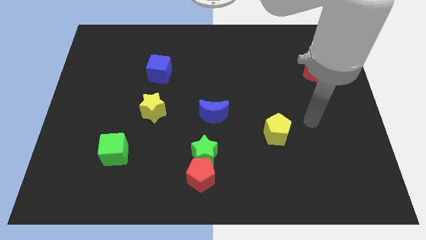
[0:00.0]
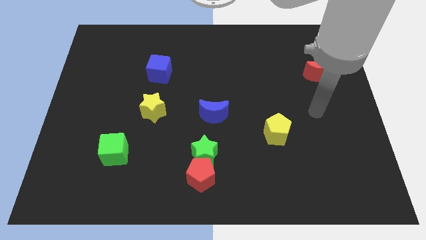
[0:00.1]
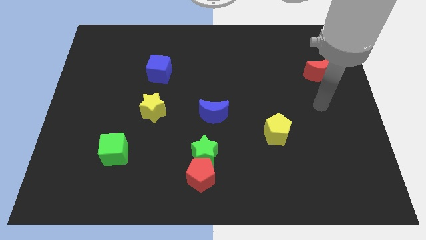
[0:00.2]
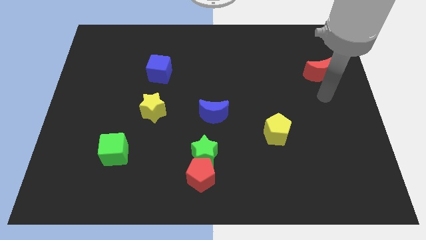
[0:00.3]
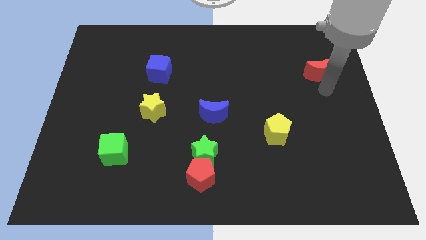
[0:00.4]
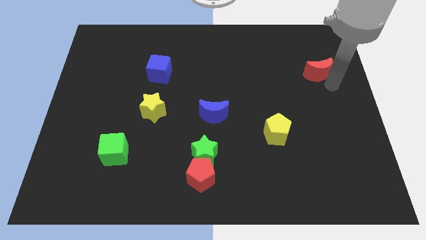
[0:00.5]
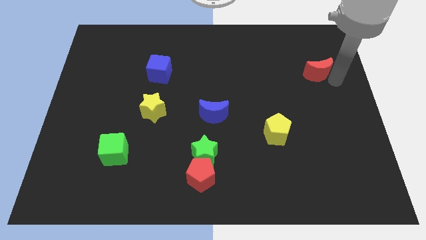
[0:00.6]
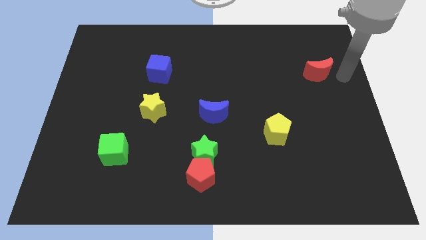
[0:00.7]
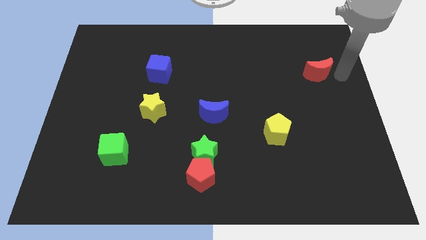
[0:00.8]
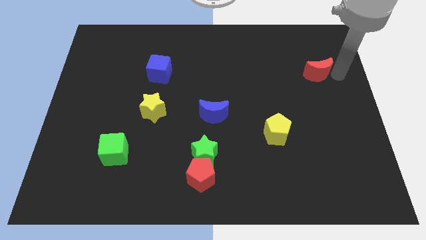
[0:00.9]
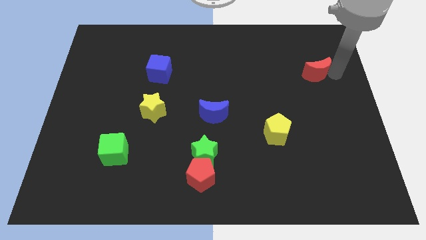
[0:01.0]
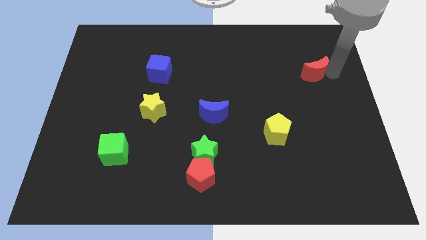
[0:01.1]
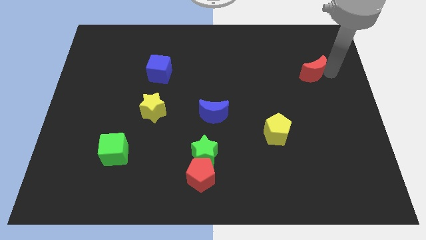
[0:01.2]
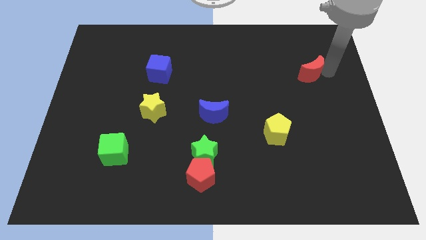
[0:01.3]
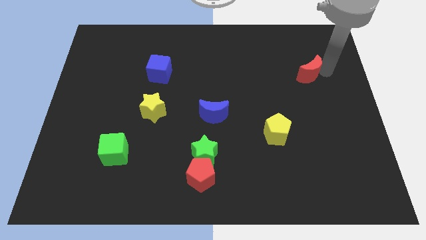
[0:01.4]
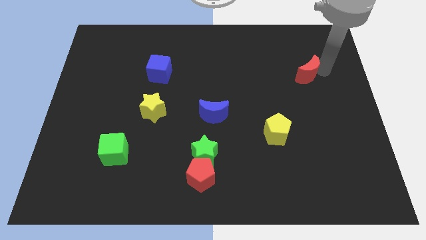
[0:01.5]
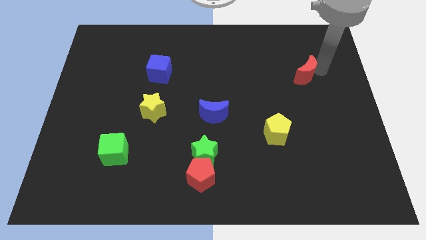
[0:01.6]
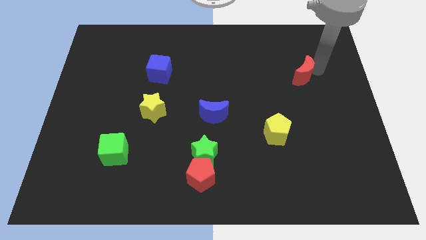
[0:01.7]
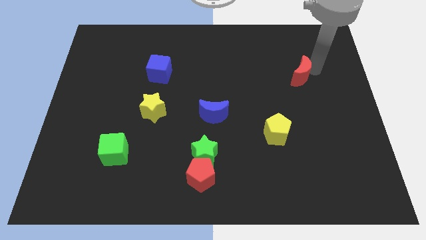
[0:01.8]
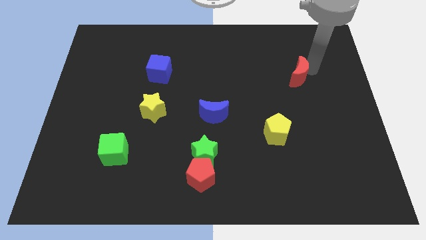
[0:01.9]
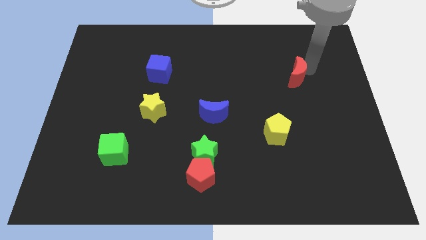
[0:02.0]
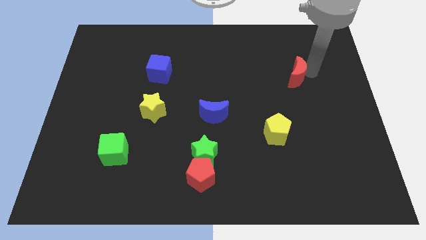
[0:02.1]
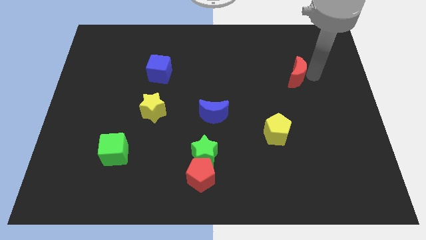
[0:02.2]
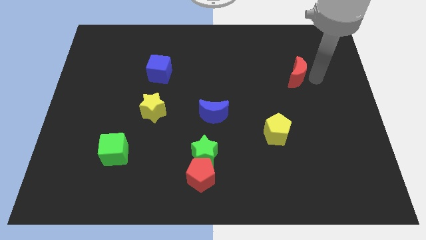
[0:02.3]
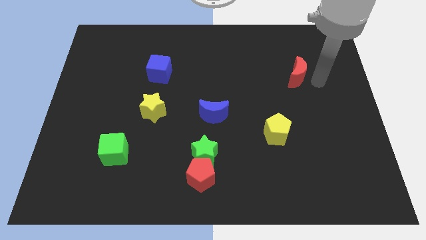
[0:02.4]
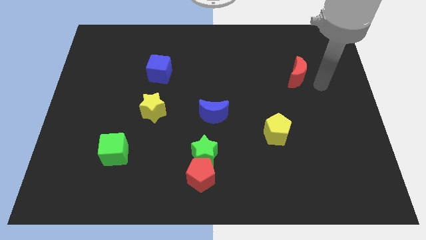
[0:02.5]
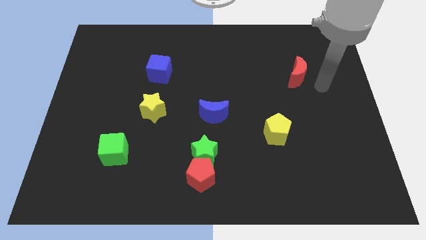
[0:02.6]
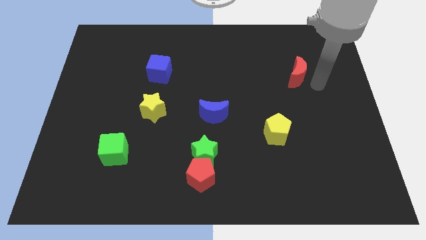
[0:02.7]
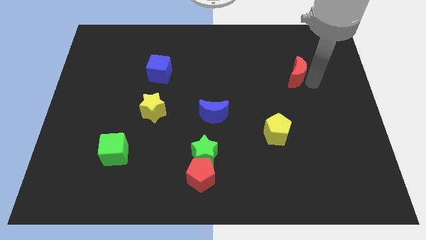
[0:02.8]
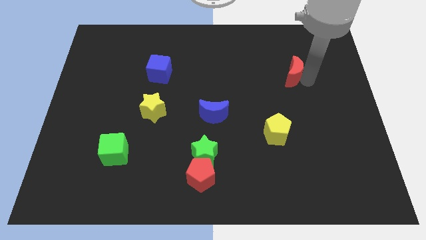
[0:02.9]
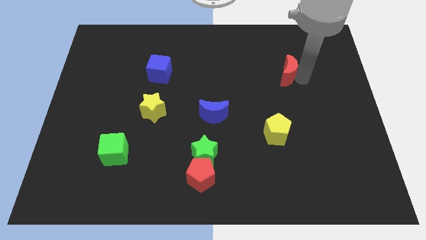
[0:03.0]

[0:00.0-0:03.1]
slightly move the red moon left

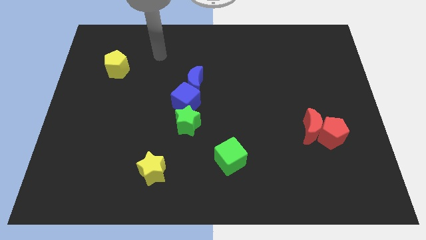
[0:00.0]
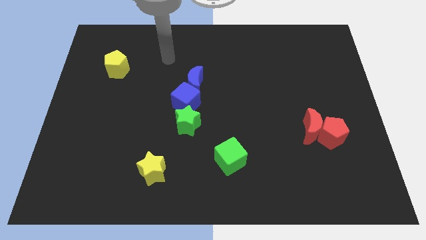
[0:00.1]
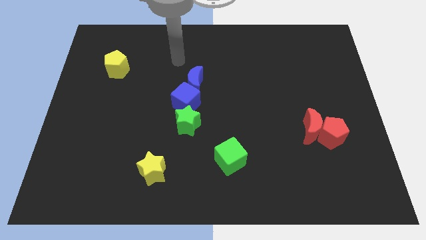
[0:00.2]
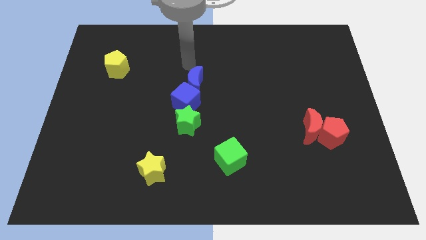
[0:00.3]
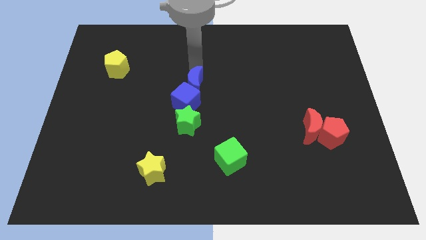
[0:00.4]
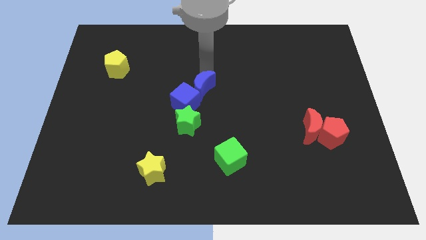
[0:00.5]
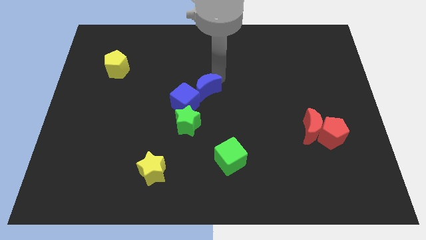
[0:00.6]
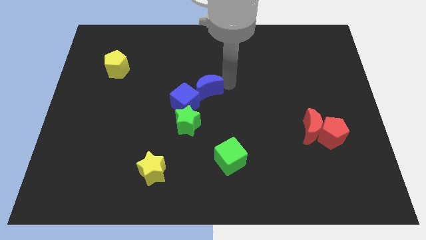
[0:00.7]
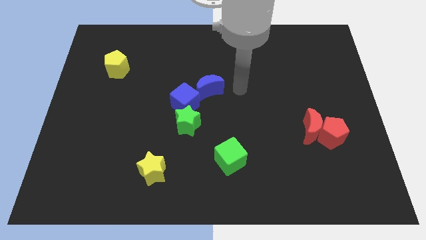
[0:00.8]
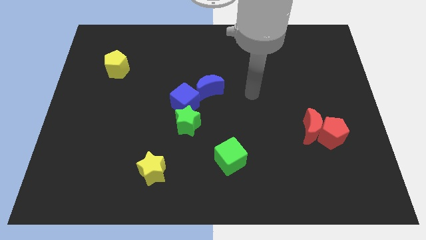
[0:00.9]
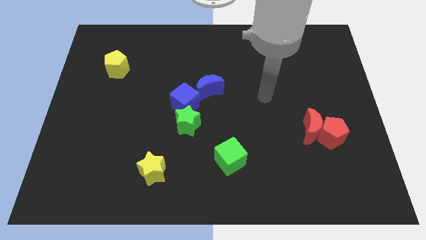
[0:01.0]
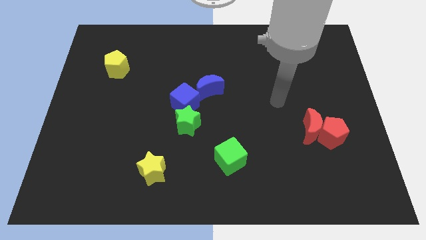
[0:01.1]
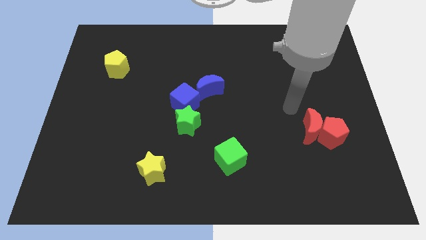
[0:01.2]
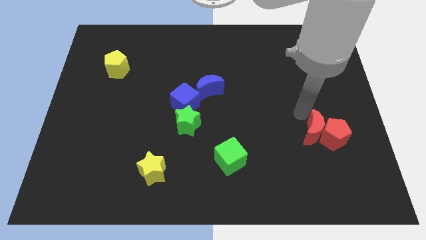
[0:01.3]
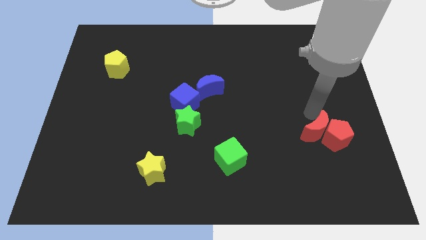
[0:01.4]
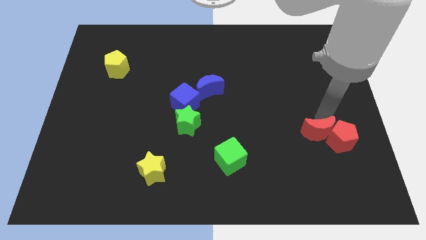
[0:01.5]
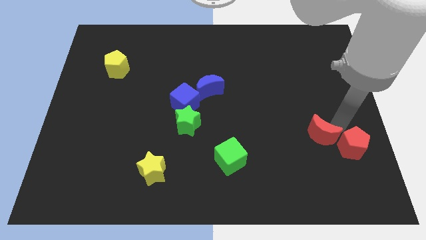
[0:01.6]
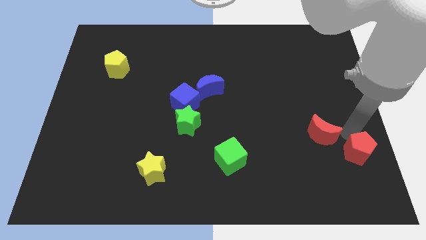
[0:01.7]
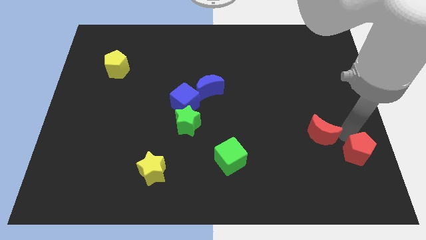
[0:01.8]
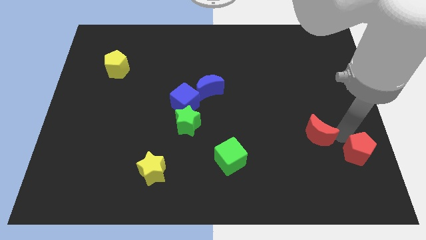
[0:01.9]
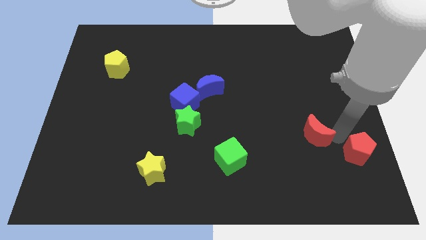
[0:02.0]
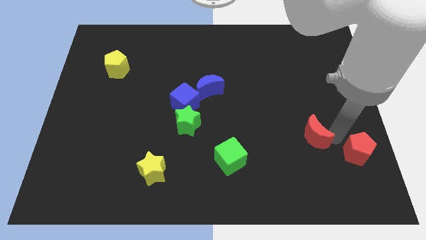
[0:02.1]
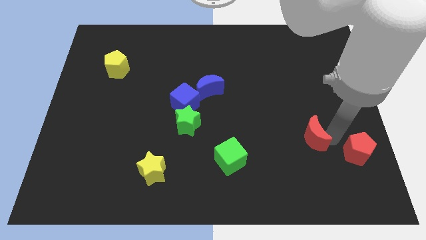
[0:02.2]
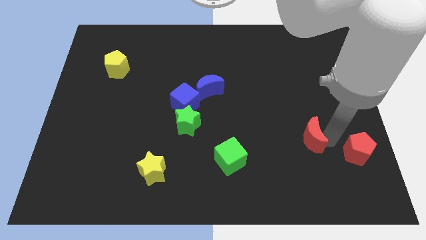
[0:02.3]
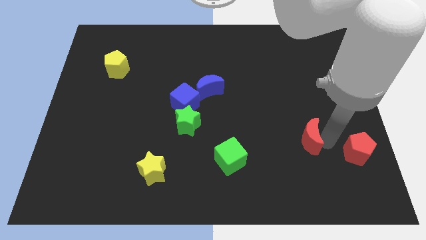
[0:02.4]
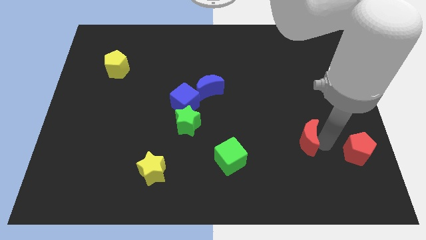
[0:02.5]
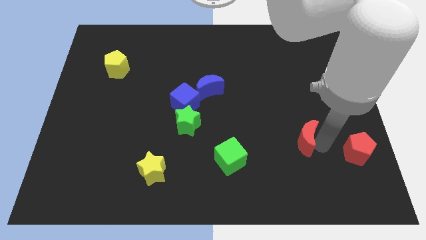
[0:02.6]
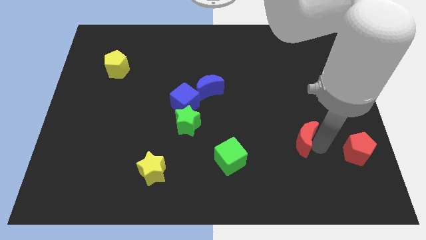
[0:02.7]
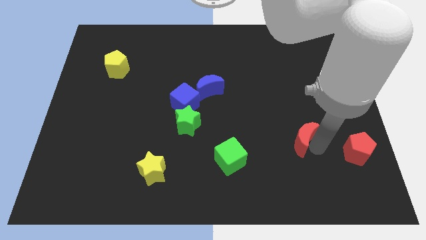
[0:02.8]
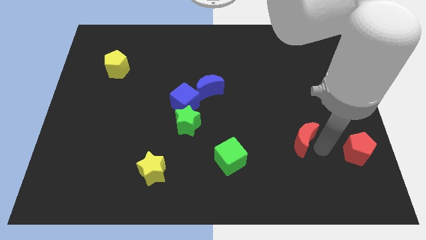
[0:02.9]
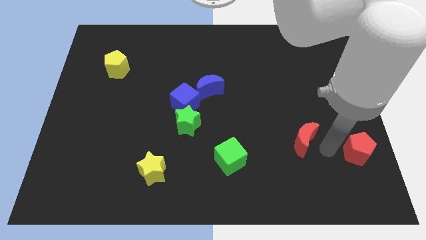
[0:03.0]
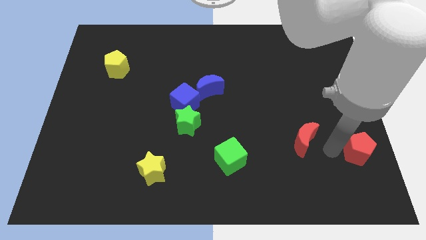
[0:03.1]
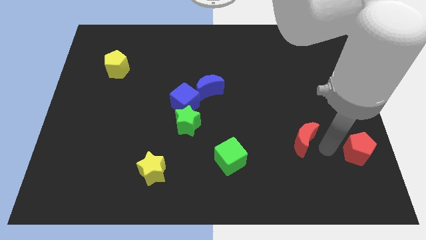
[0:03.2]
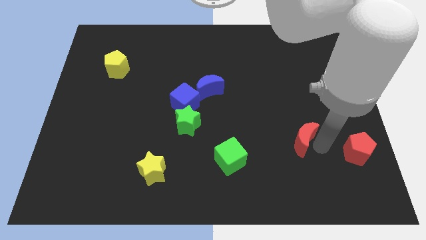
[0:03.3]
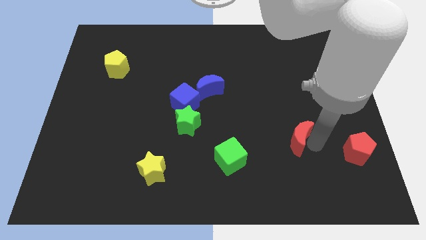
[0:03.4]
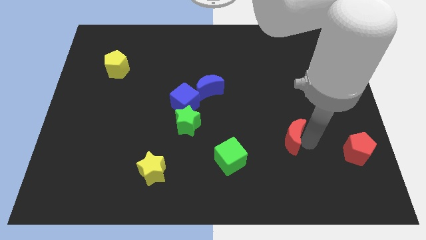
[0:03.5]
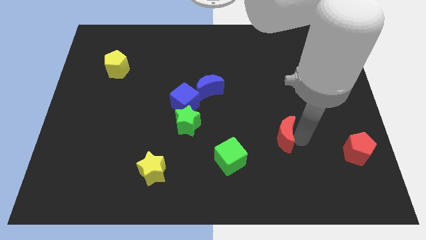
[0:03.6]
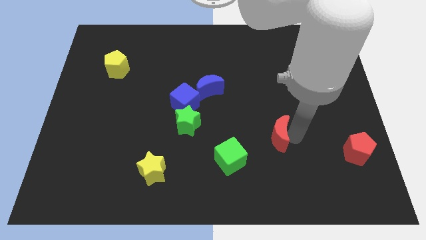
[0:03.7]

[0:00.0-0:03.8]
slide the red moon to the left slightly

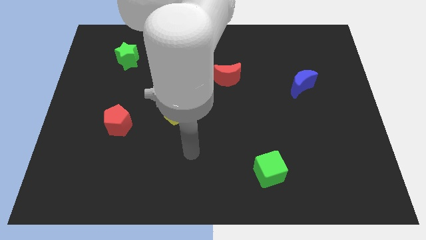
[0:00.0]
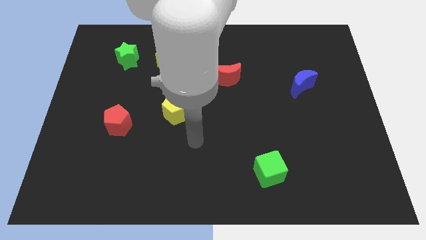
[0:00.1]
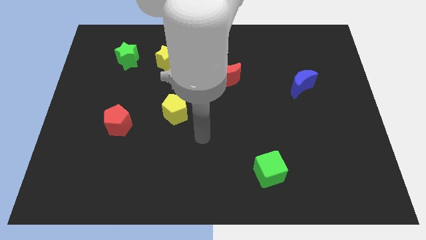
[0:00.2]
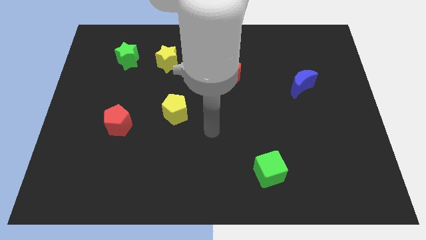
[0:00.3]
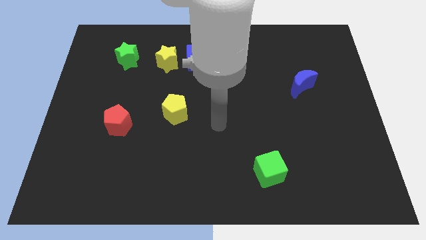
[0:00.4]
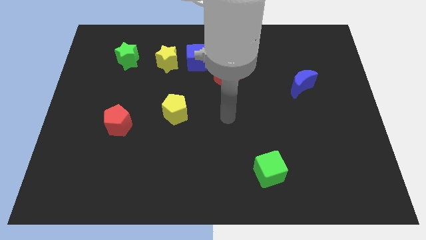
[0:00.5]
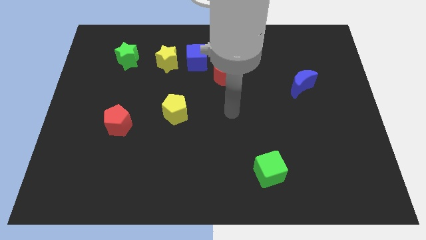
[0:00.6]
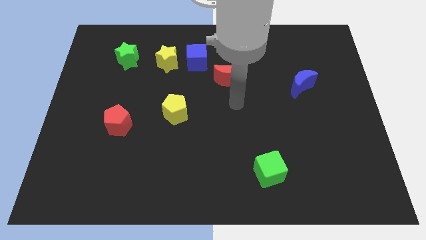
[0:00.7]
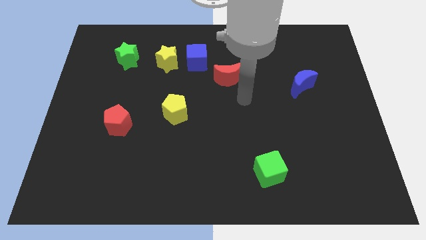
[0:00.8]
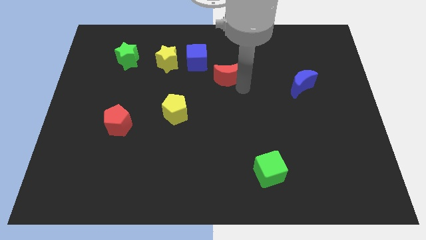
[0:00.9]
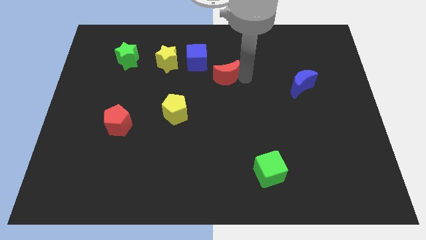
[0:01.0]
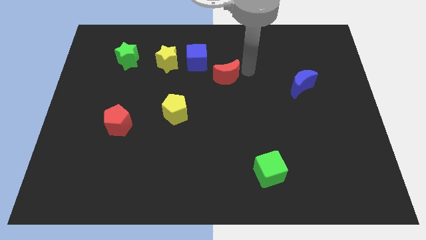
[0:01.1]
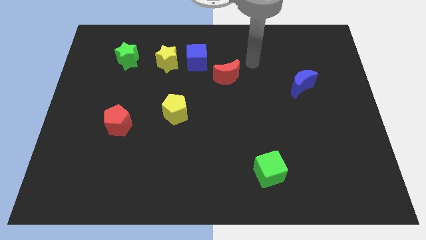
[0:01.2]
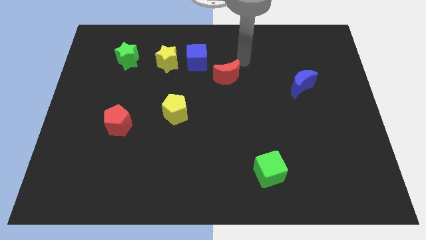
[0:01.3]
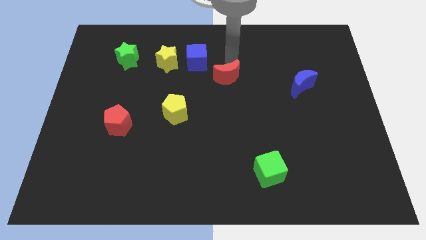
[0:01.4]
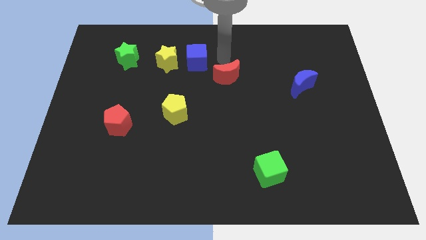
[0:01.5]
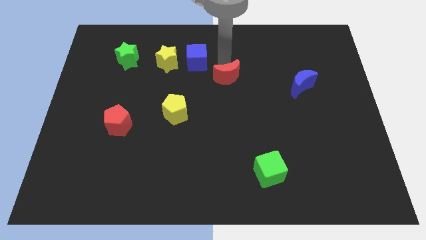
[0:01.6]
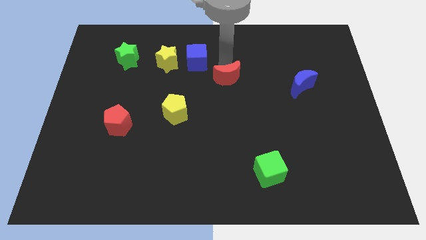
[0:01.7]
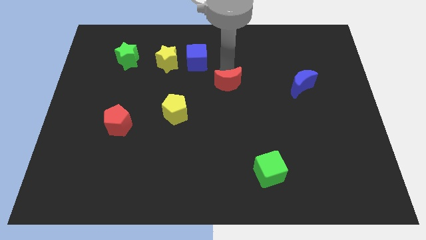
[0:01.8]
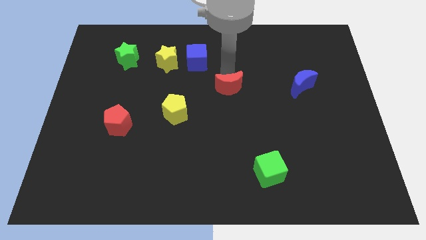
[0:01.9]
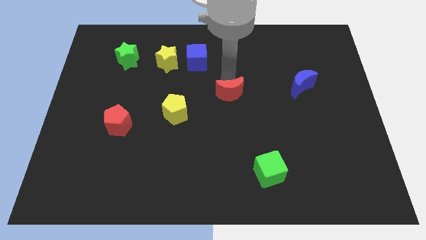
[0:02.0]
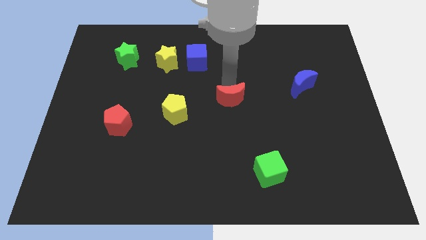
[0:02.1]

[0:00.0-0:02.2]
slightly push the red moon down
